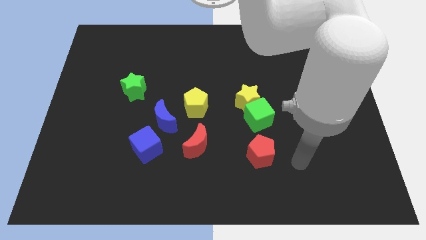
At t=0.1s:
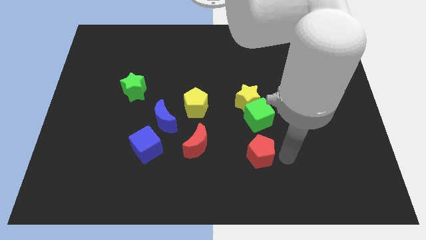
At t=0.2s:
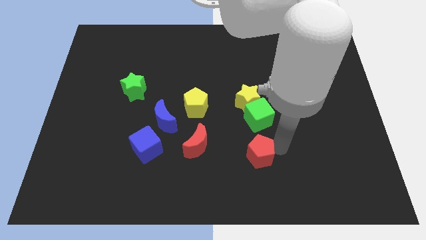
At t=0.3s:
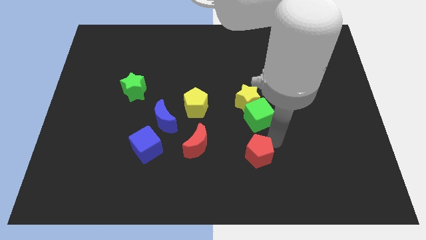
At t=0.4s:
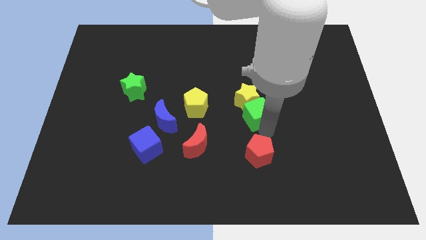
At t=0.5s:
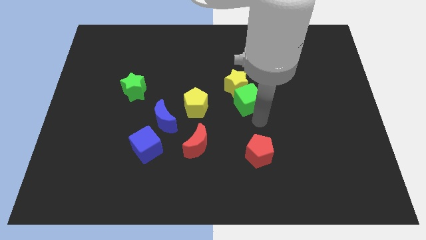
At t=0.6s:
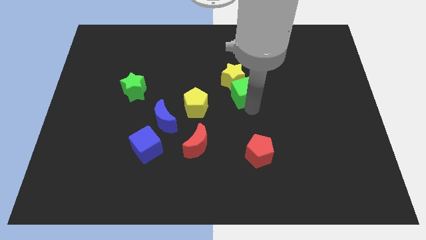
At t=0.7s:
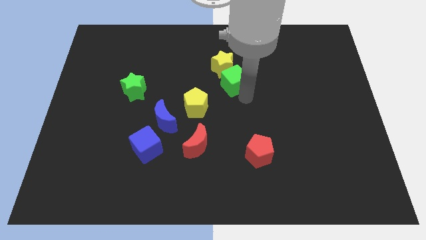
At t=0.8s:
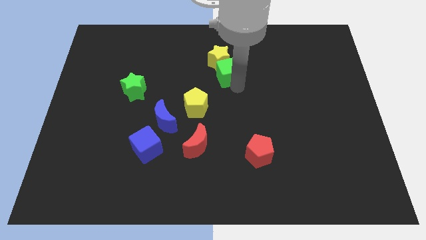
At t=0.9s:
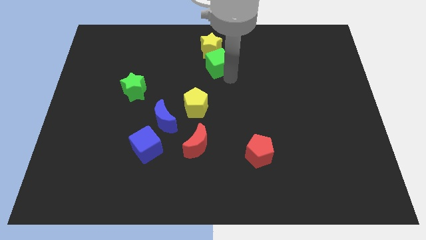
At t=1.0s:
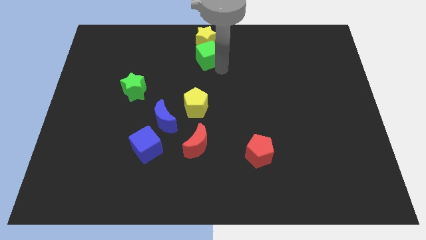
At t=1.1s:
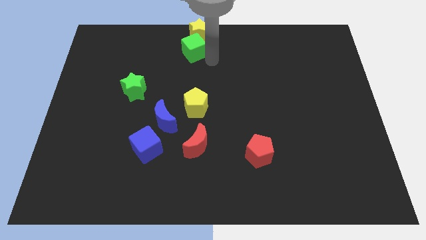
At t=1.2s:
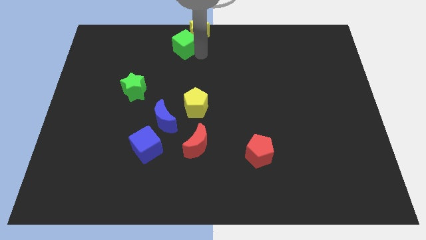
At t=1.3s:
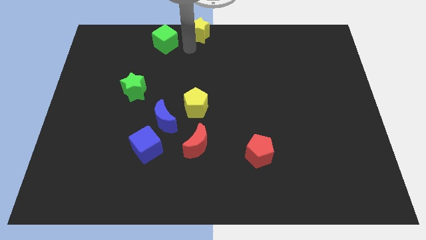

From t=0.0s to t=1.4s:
move the yellow star away from the green cube

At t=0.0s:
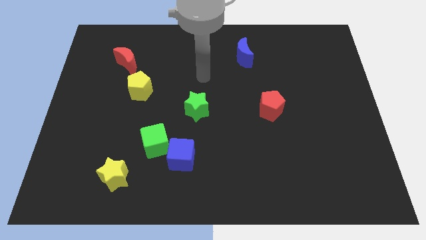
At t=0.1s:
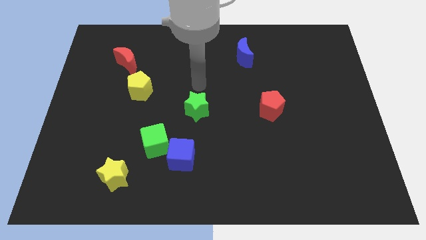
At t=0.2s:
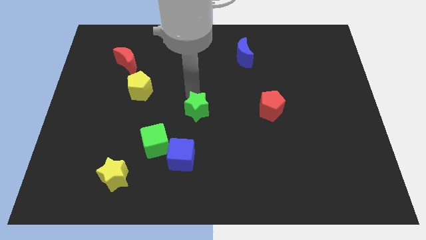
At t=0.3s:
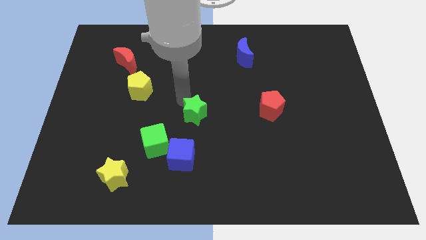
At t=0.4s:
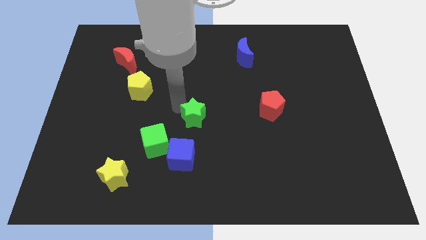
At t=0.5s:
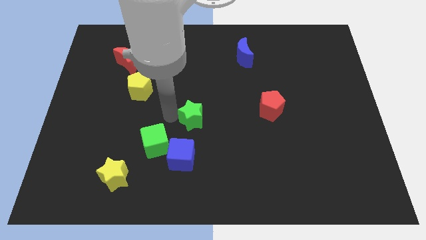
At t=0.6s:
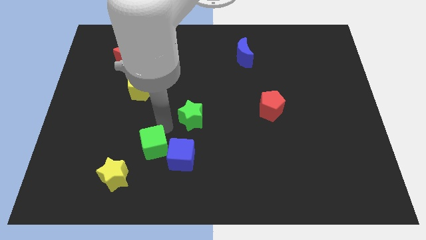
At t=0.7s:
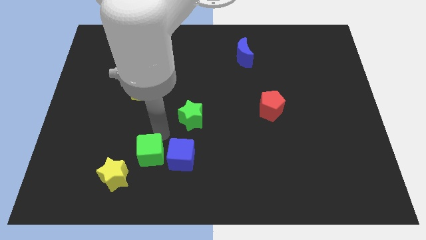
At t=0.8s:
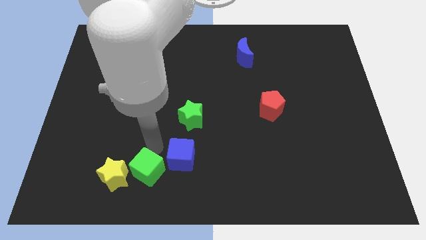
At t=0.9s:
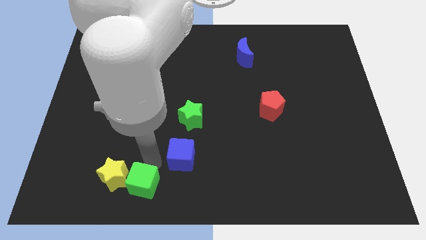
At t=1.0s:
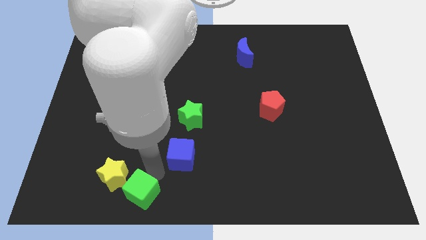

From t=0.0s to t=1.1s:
pull the blue cube apart from the green cube

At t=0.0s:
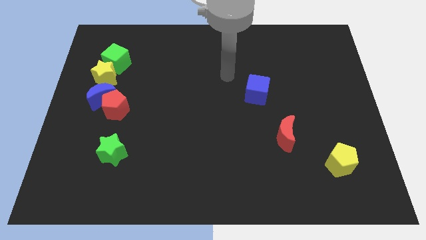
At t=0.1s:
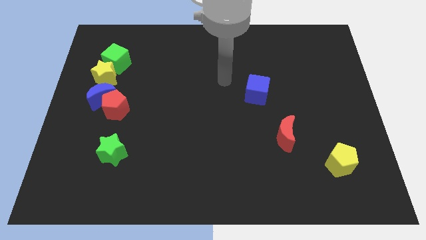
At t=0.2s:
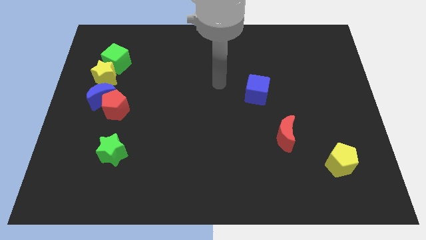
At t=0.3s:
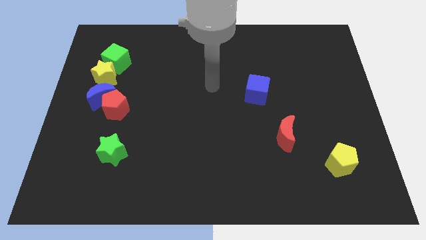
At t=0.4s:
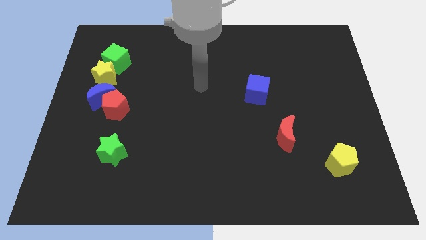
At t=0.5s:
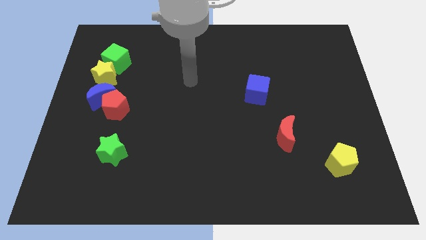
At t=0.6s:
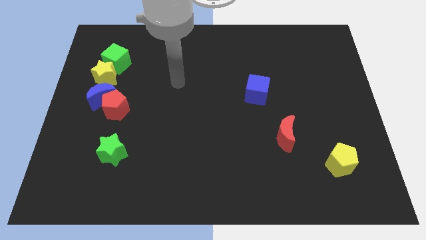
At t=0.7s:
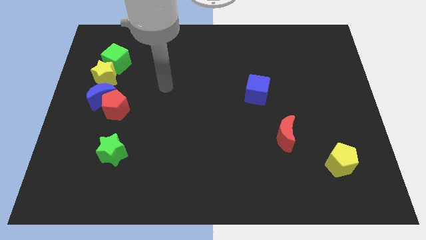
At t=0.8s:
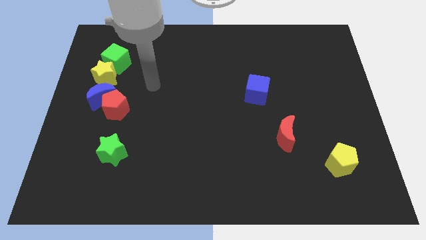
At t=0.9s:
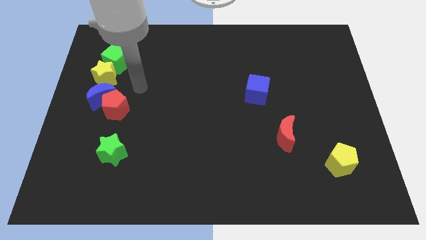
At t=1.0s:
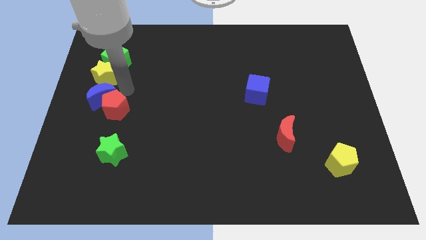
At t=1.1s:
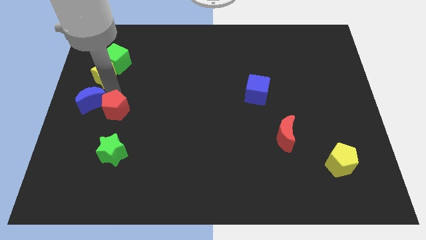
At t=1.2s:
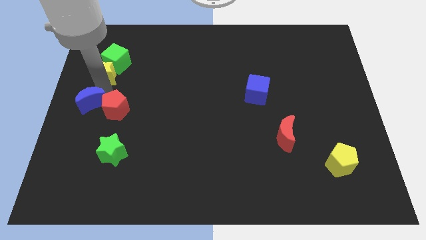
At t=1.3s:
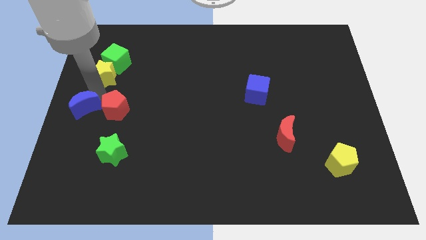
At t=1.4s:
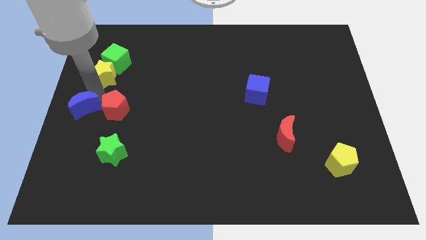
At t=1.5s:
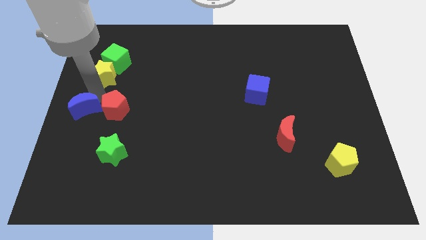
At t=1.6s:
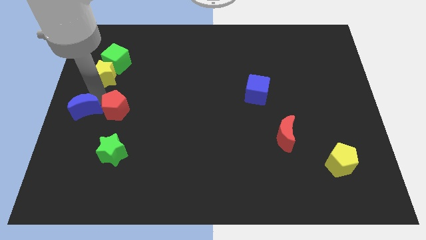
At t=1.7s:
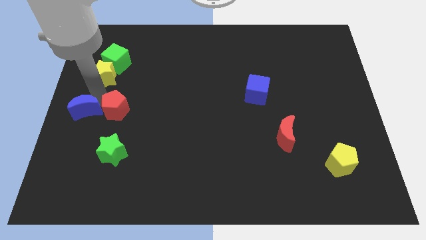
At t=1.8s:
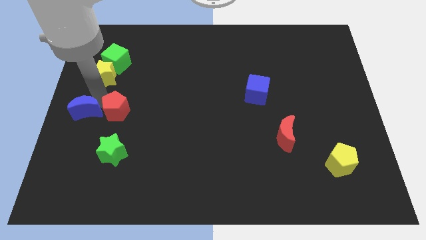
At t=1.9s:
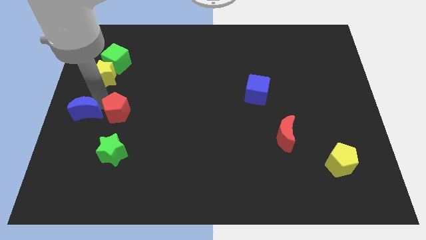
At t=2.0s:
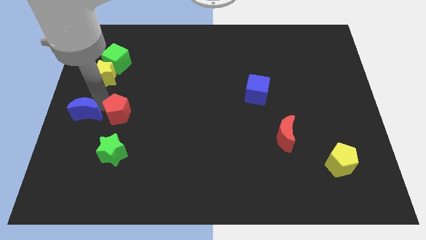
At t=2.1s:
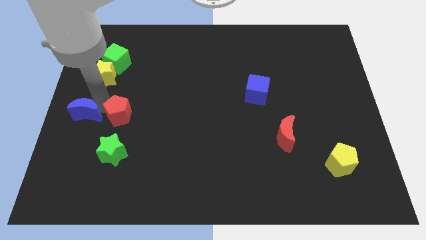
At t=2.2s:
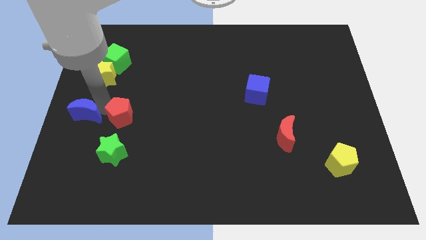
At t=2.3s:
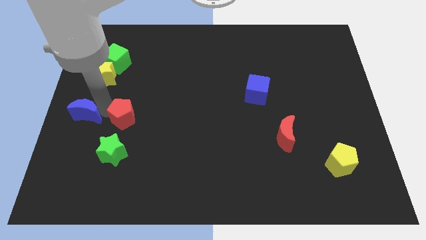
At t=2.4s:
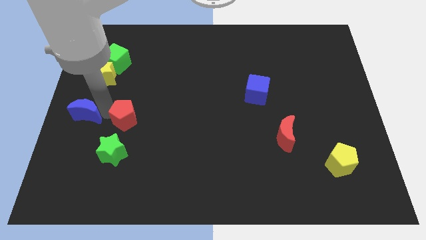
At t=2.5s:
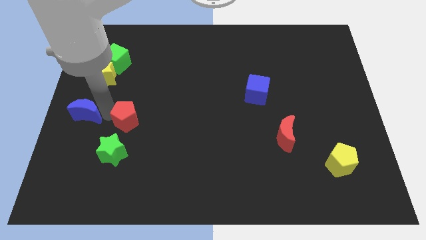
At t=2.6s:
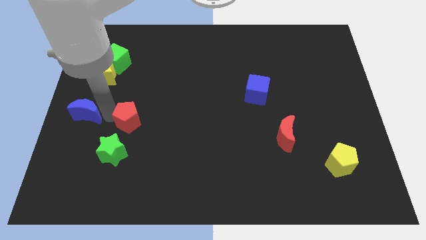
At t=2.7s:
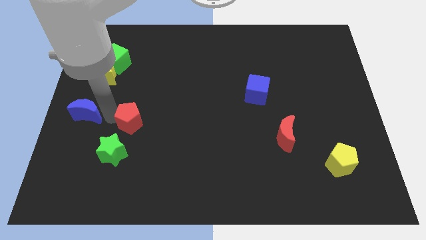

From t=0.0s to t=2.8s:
separate the red pentagon from the blue moon

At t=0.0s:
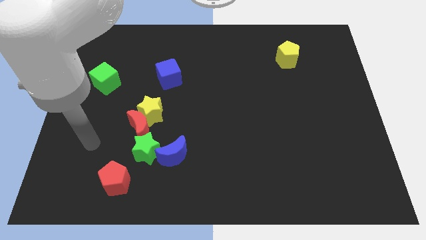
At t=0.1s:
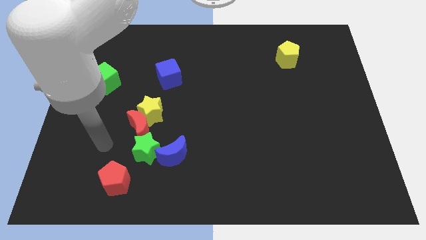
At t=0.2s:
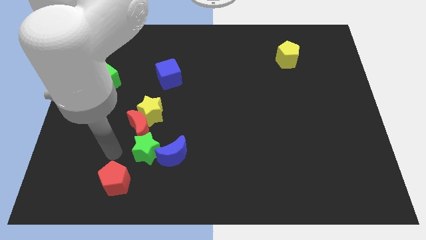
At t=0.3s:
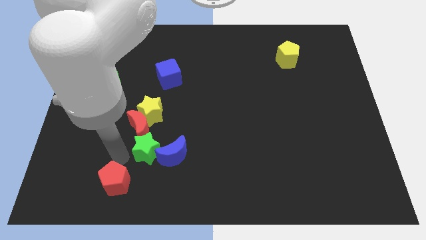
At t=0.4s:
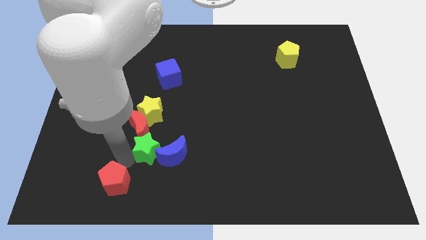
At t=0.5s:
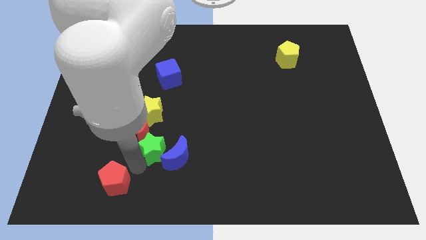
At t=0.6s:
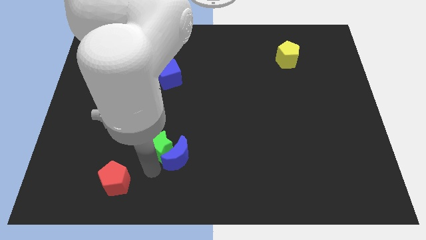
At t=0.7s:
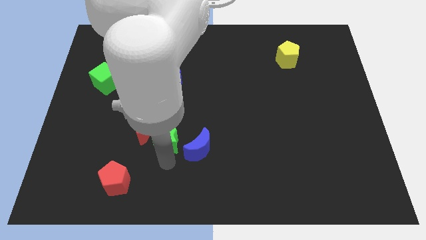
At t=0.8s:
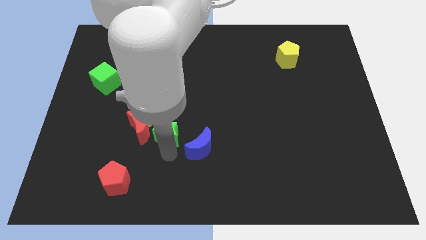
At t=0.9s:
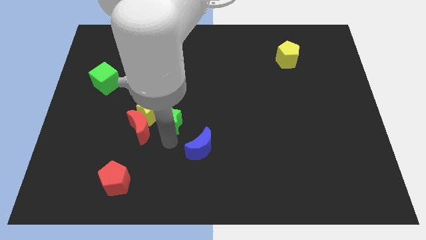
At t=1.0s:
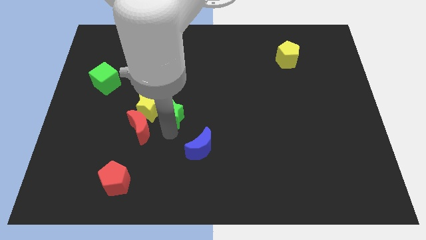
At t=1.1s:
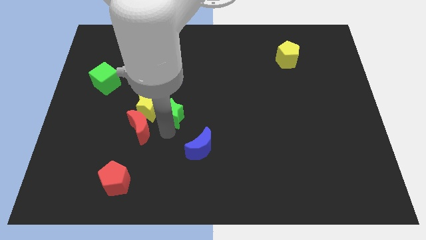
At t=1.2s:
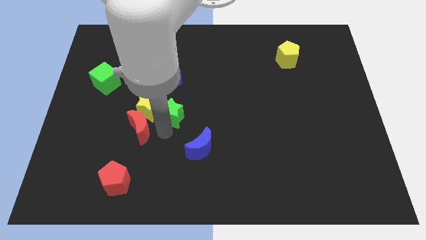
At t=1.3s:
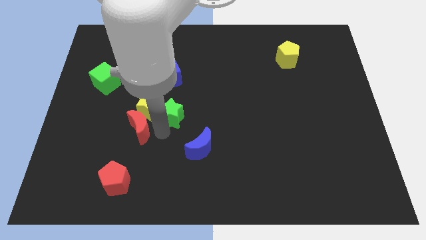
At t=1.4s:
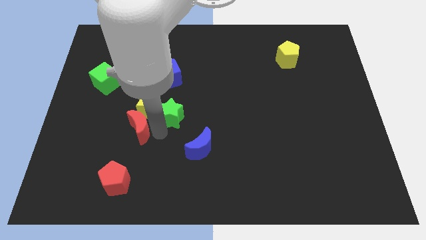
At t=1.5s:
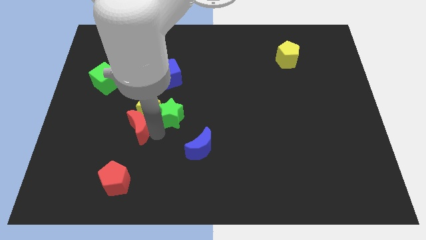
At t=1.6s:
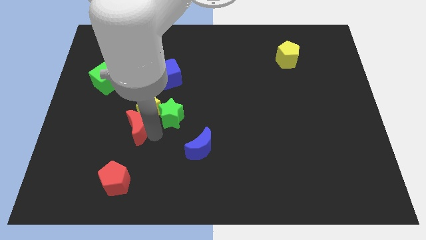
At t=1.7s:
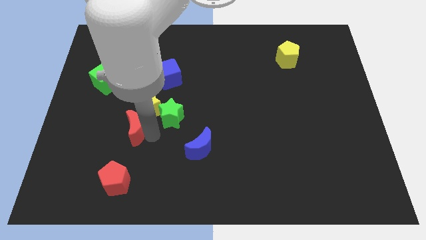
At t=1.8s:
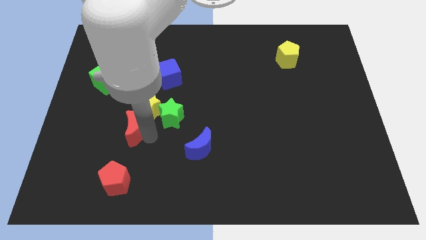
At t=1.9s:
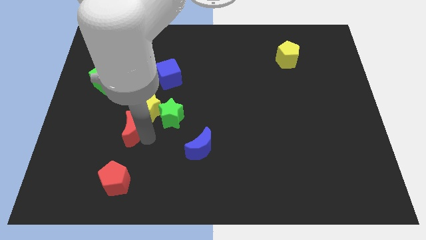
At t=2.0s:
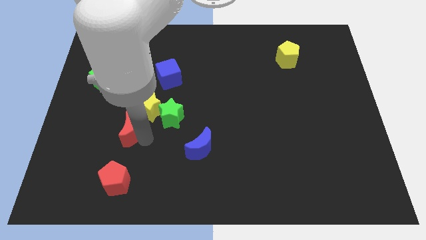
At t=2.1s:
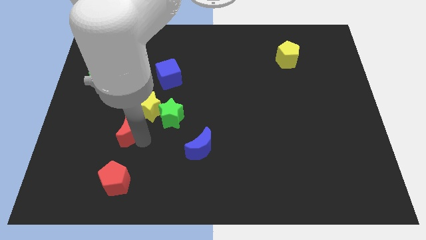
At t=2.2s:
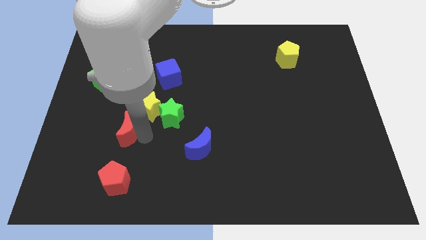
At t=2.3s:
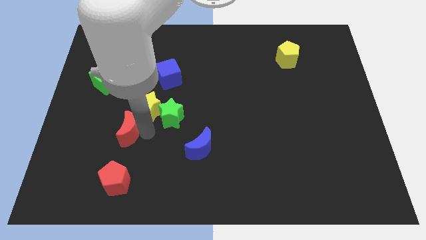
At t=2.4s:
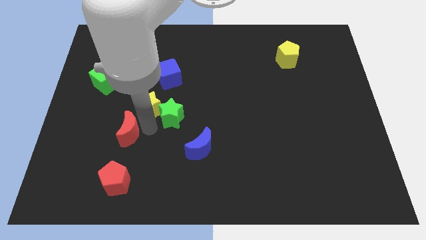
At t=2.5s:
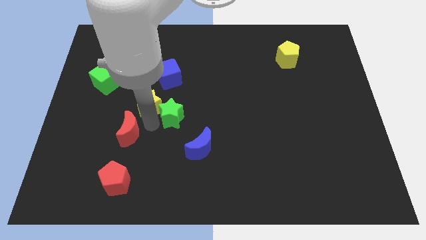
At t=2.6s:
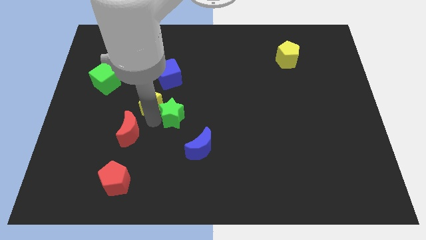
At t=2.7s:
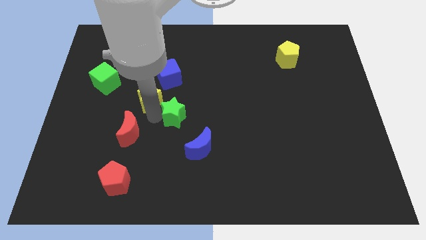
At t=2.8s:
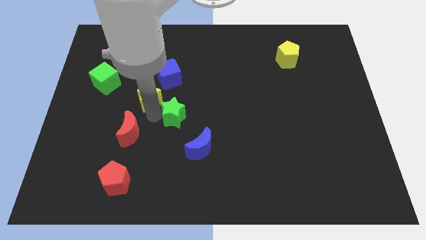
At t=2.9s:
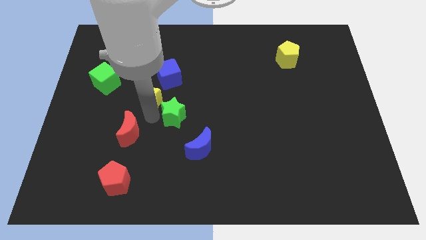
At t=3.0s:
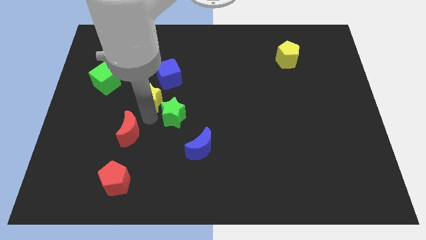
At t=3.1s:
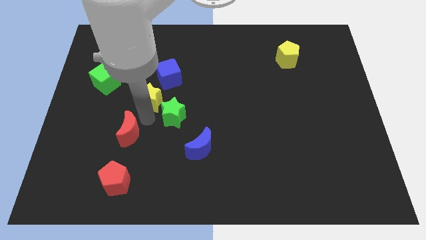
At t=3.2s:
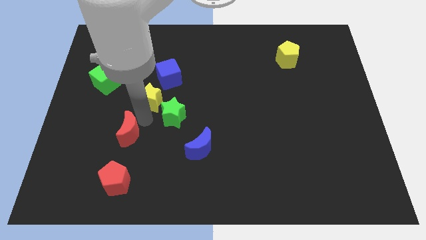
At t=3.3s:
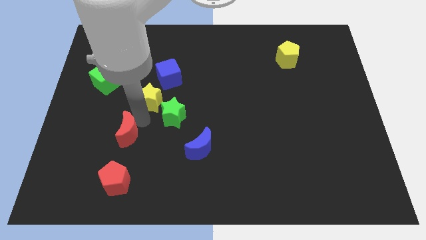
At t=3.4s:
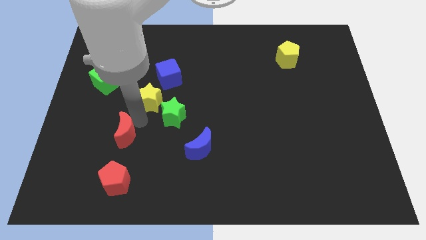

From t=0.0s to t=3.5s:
pull the red moon apart from the yellow star and green star

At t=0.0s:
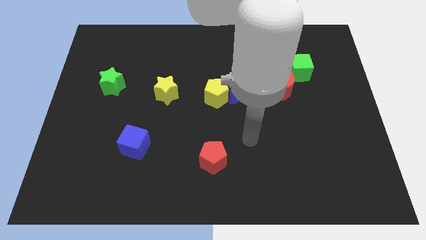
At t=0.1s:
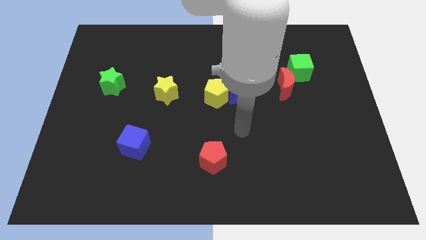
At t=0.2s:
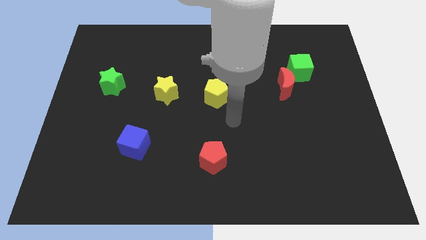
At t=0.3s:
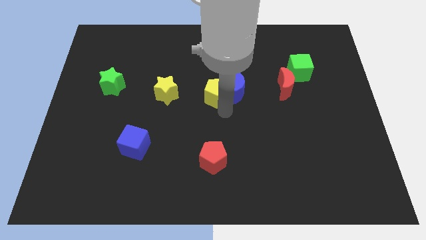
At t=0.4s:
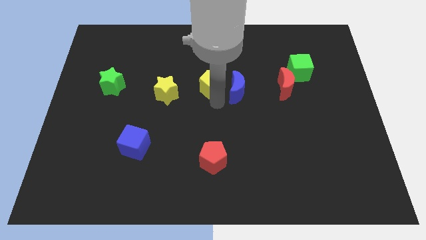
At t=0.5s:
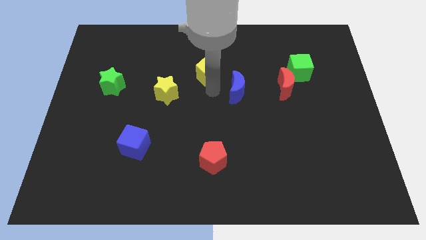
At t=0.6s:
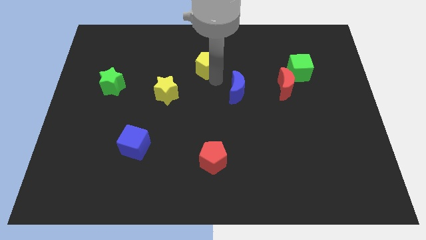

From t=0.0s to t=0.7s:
separate the blue moon from the yellow pentagon
